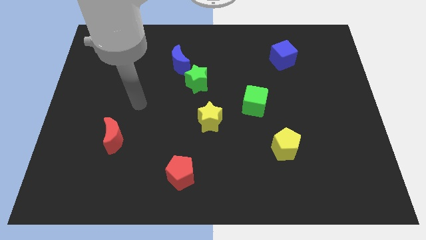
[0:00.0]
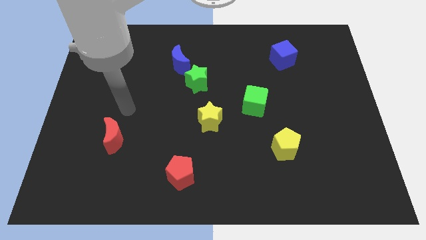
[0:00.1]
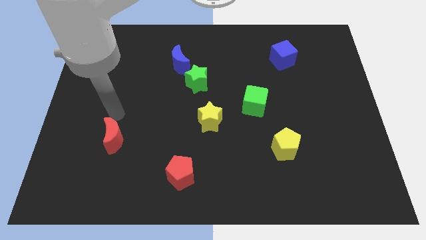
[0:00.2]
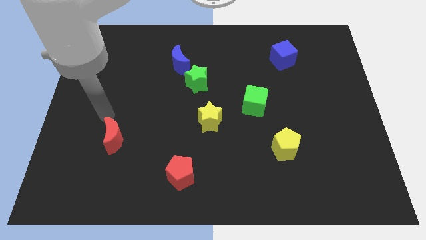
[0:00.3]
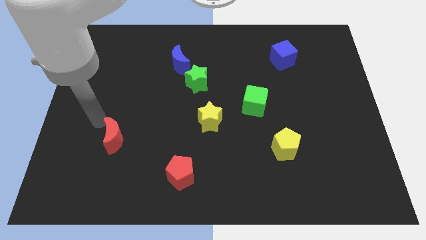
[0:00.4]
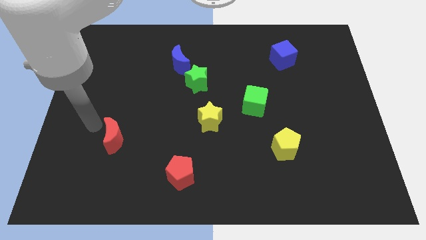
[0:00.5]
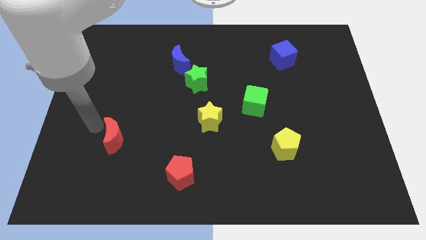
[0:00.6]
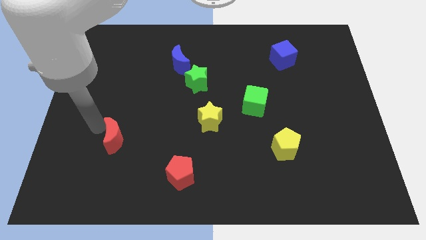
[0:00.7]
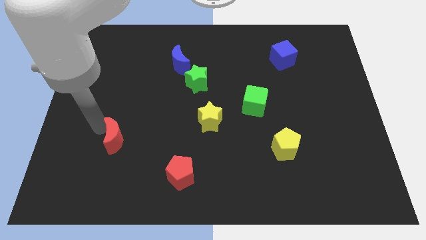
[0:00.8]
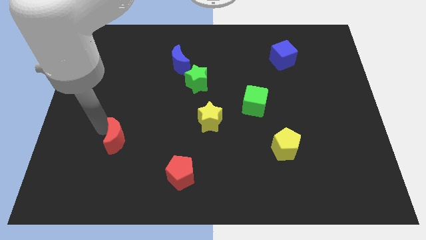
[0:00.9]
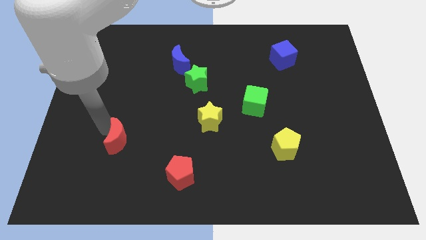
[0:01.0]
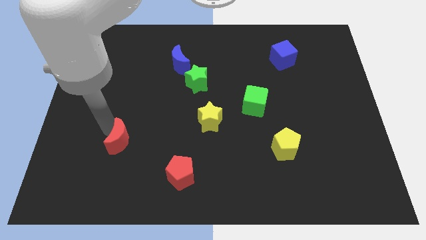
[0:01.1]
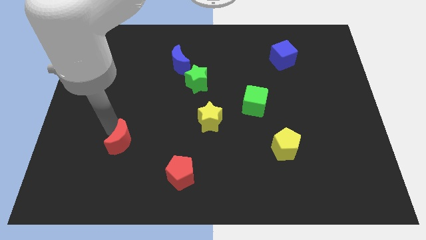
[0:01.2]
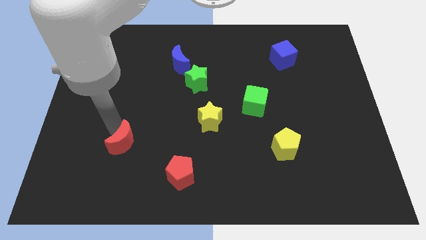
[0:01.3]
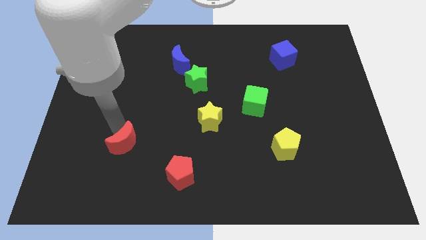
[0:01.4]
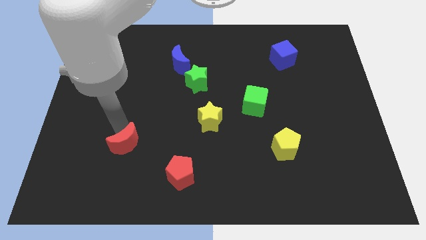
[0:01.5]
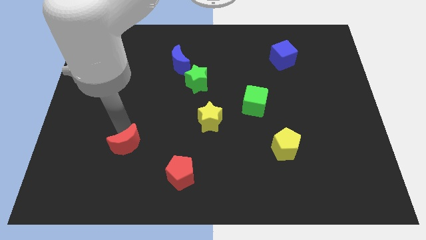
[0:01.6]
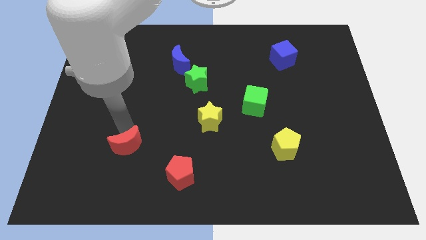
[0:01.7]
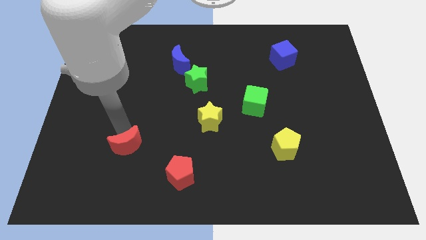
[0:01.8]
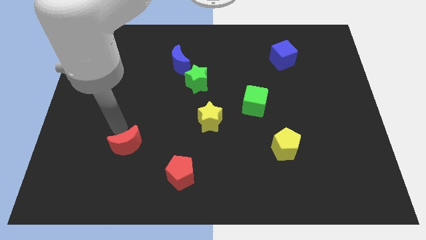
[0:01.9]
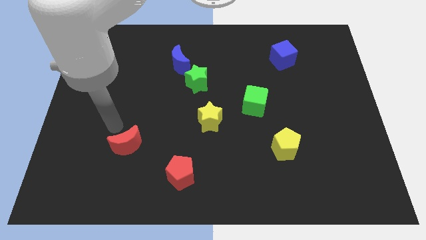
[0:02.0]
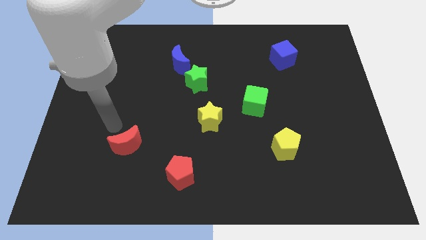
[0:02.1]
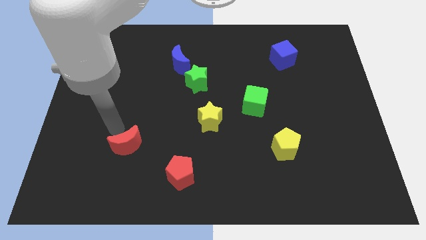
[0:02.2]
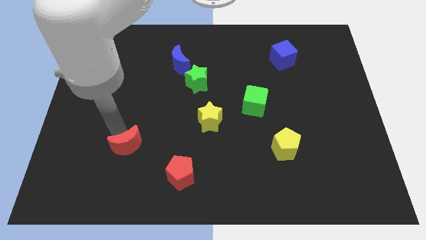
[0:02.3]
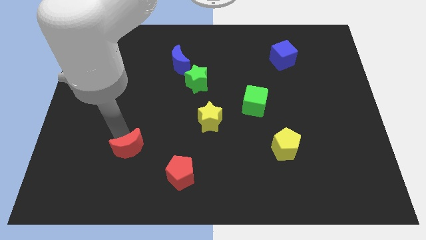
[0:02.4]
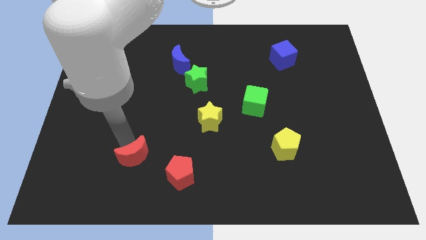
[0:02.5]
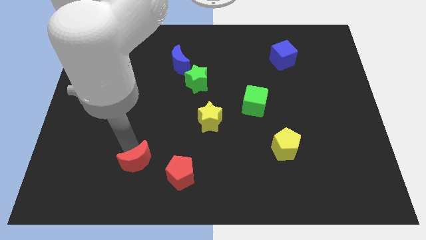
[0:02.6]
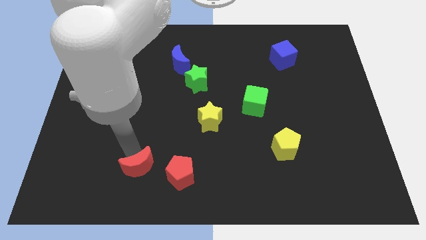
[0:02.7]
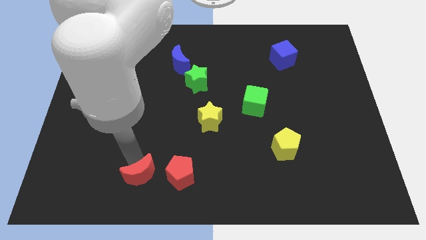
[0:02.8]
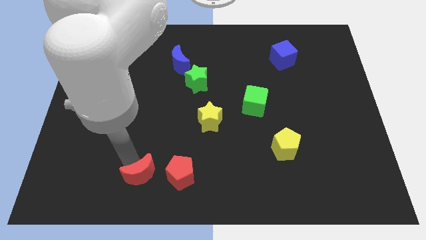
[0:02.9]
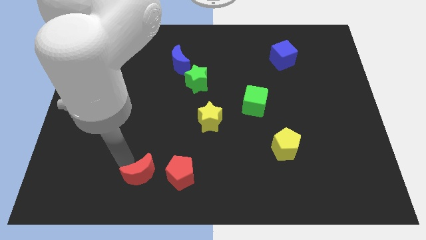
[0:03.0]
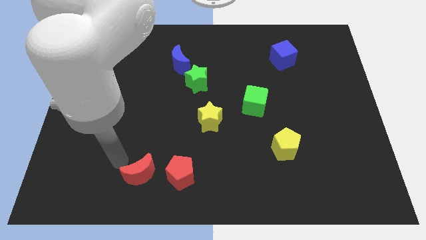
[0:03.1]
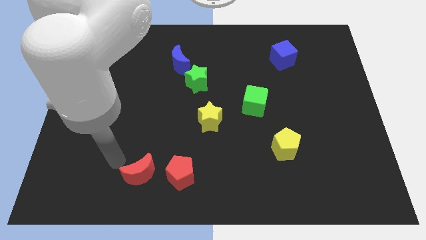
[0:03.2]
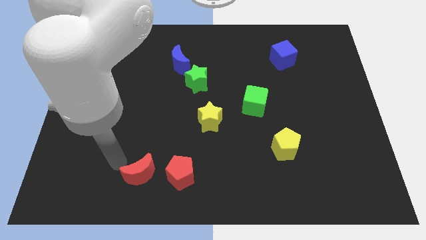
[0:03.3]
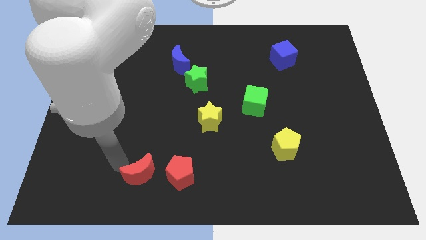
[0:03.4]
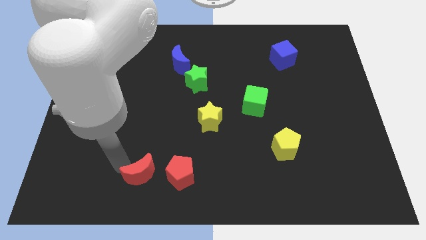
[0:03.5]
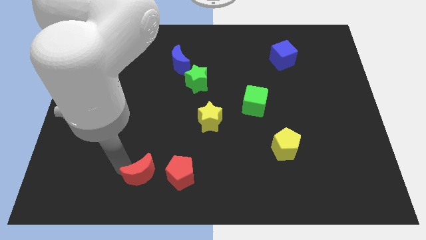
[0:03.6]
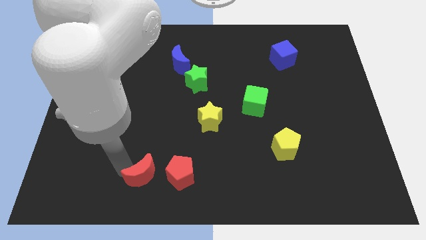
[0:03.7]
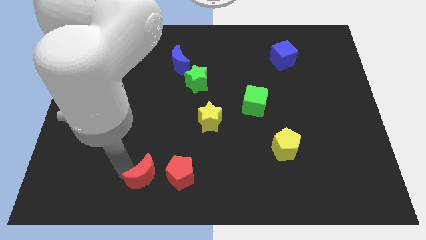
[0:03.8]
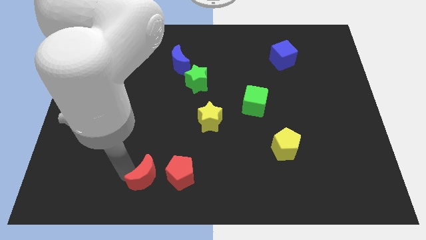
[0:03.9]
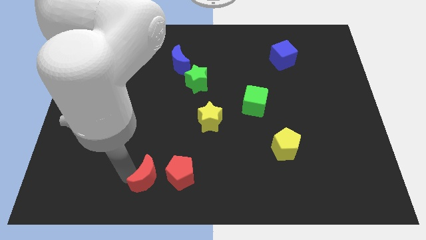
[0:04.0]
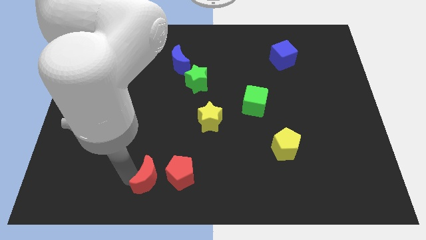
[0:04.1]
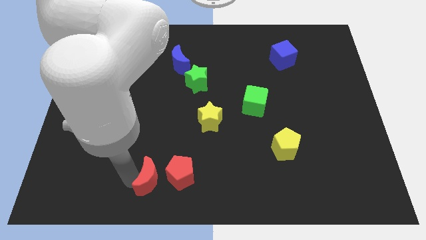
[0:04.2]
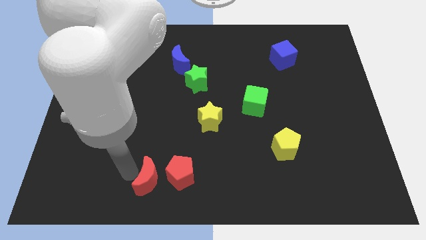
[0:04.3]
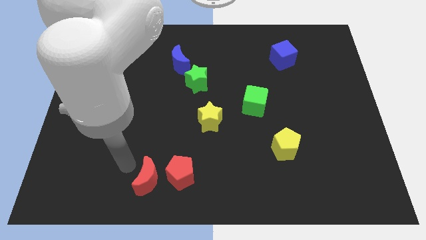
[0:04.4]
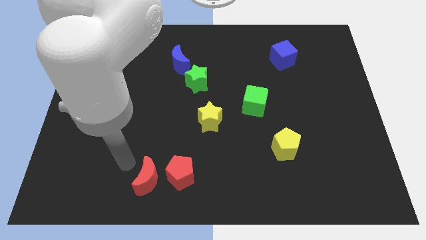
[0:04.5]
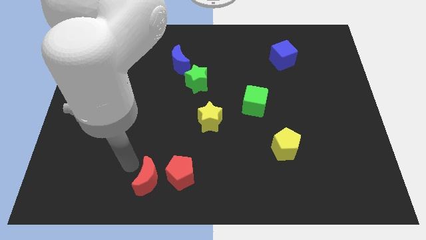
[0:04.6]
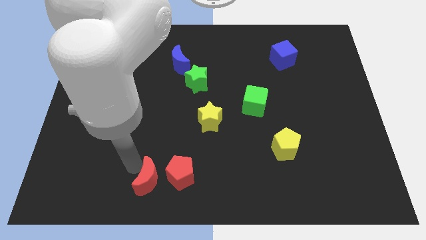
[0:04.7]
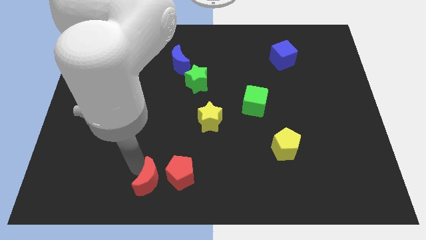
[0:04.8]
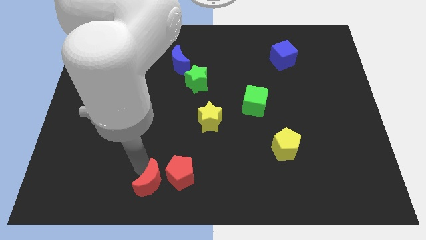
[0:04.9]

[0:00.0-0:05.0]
slide the red moon to the bottom

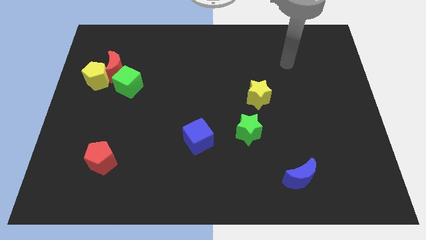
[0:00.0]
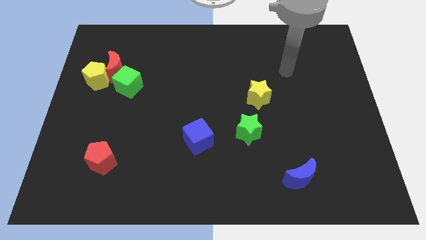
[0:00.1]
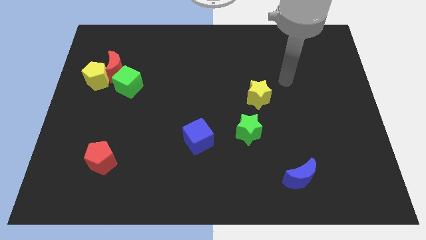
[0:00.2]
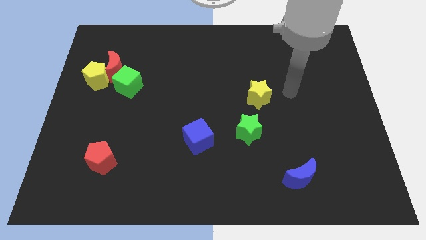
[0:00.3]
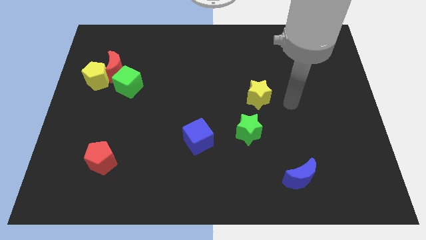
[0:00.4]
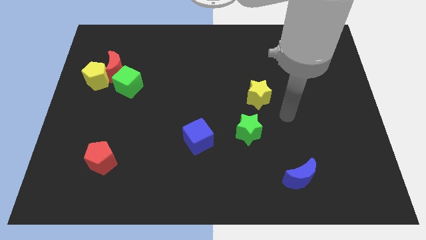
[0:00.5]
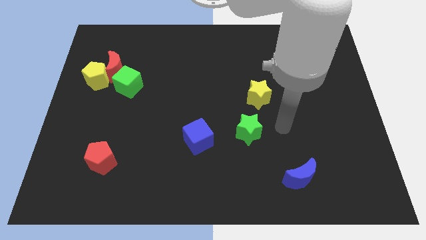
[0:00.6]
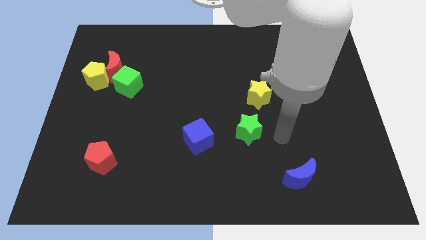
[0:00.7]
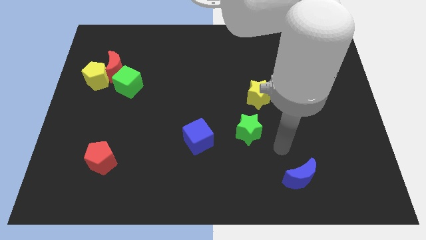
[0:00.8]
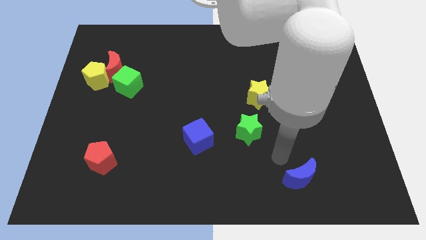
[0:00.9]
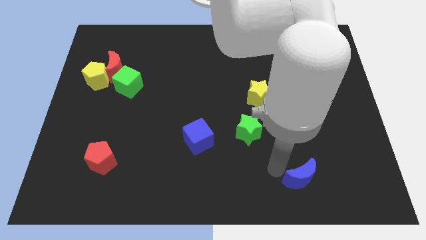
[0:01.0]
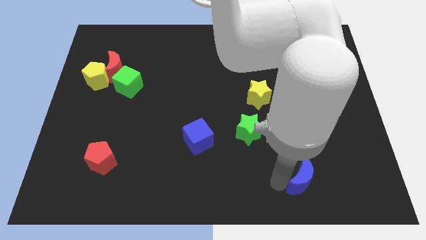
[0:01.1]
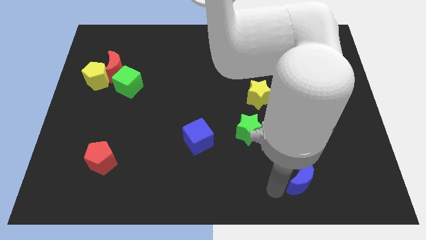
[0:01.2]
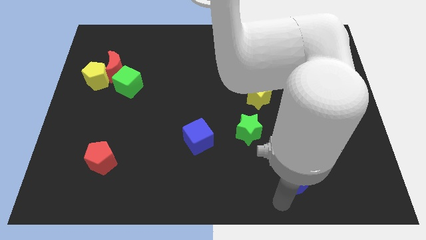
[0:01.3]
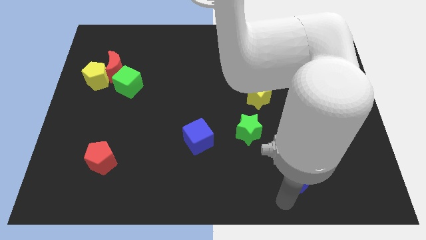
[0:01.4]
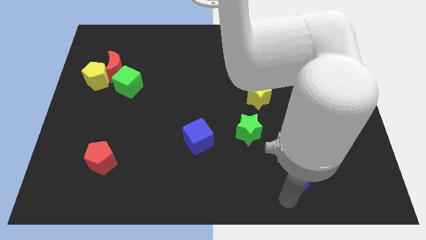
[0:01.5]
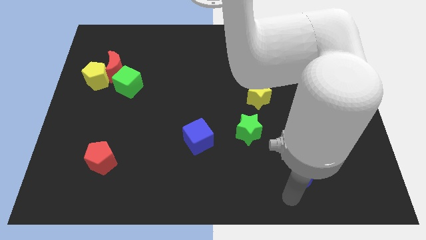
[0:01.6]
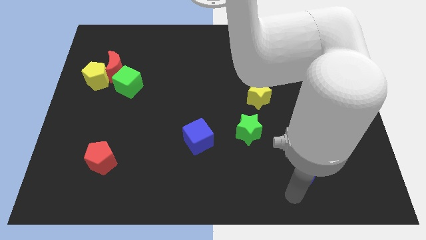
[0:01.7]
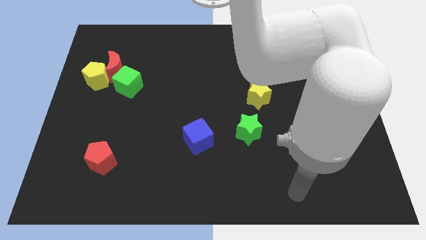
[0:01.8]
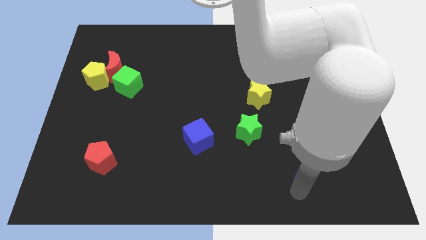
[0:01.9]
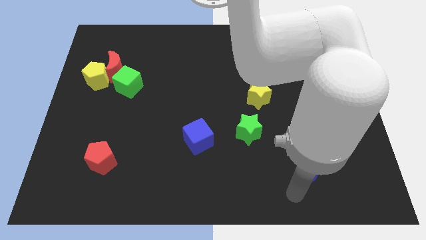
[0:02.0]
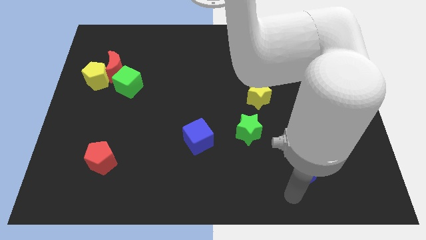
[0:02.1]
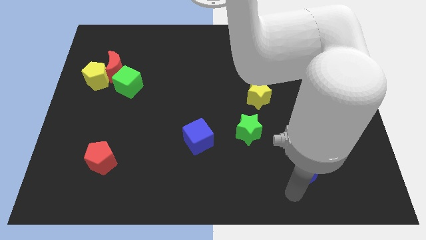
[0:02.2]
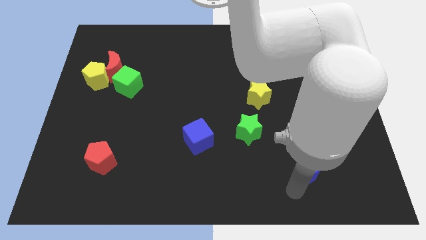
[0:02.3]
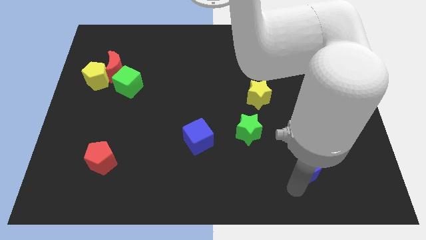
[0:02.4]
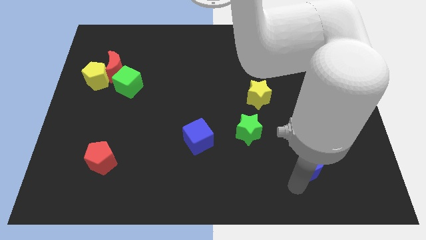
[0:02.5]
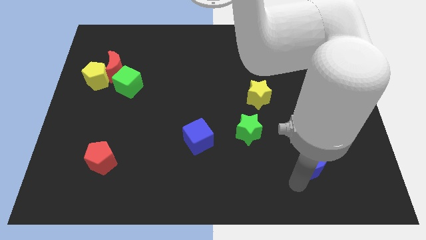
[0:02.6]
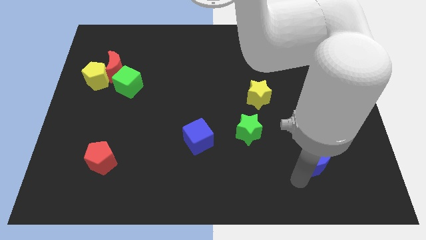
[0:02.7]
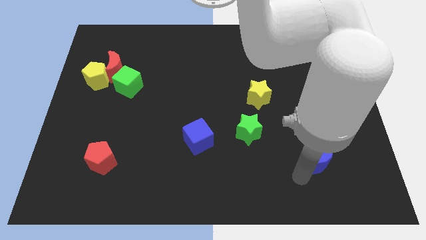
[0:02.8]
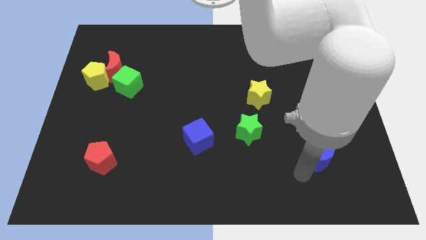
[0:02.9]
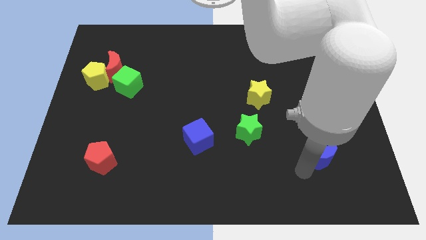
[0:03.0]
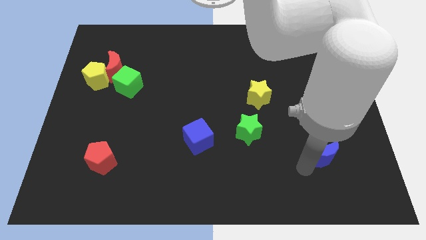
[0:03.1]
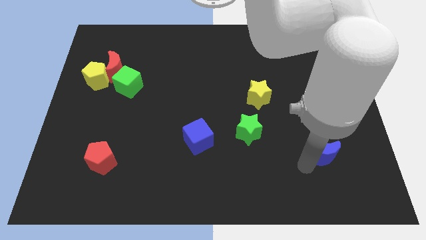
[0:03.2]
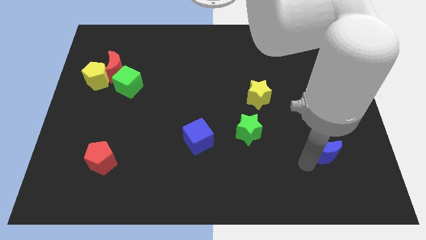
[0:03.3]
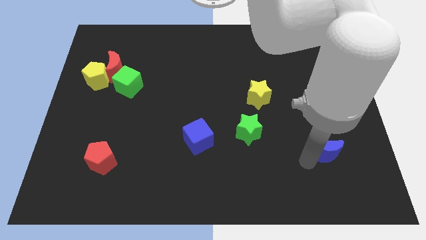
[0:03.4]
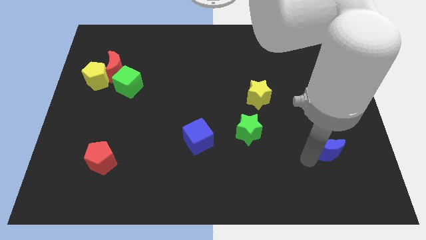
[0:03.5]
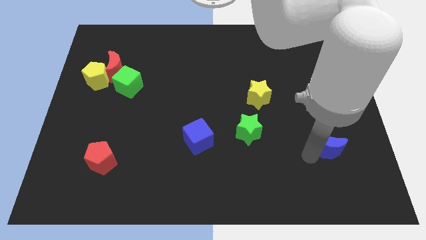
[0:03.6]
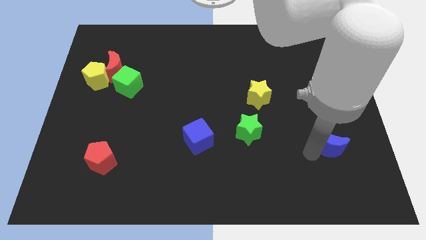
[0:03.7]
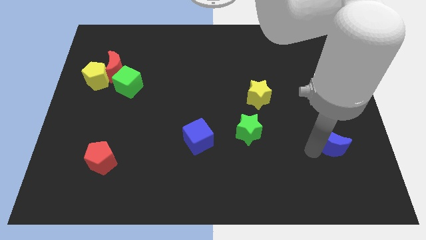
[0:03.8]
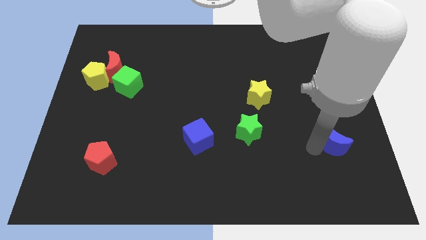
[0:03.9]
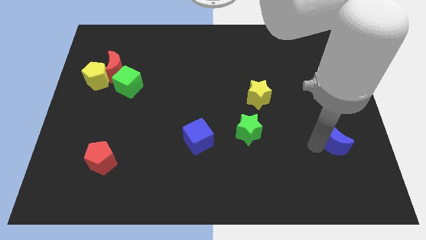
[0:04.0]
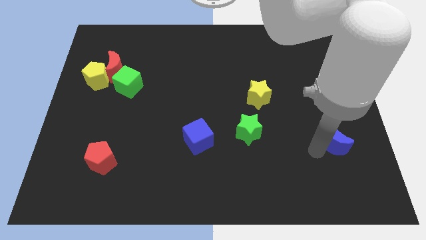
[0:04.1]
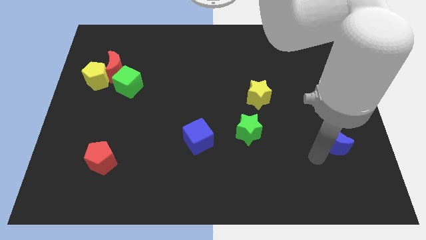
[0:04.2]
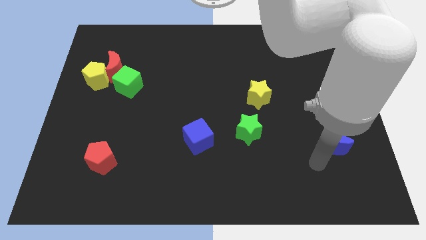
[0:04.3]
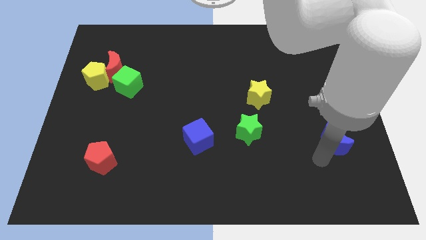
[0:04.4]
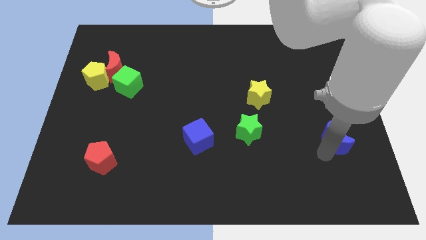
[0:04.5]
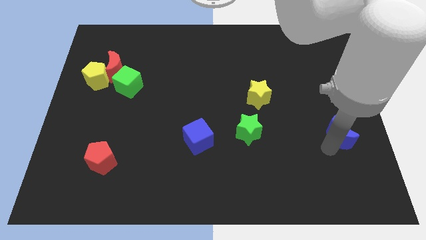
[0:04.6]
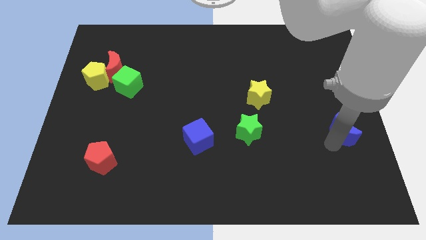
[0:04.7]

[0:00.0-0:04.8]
move the blue moon to the center right
